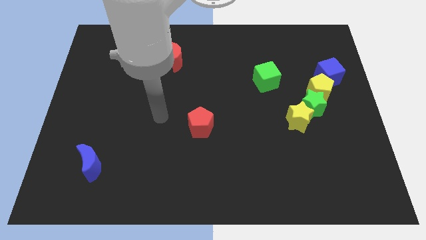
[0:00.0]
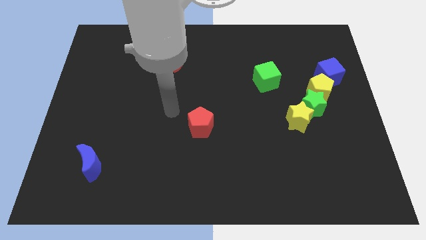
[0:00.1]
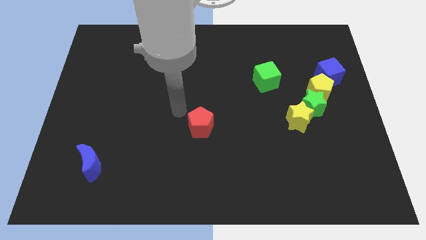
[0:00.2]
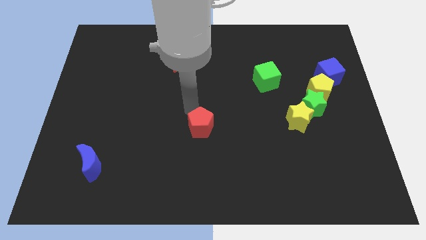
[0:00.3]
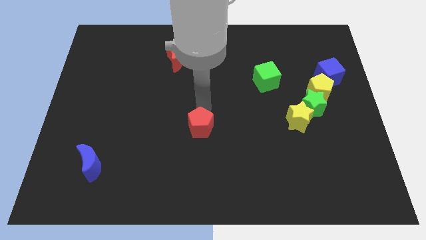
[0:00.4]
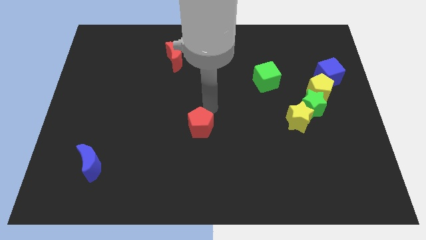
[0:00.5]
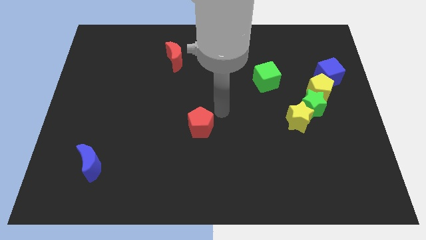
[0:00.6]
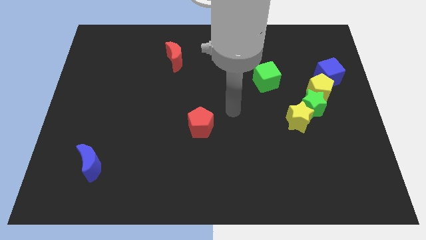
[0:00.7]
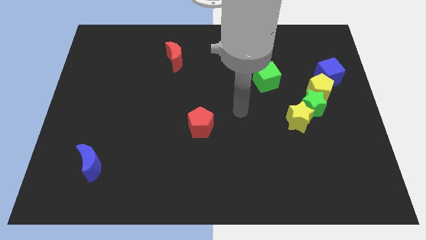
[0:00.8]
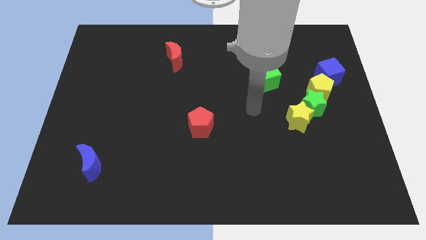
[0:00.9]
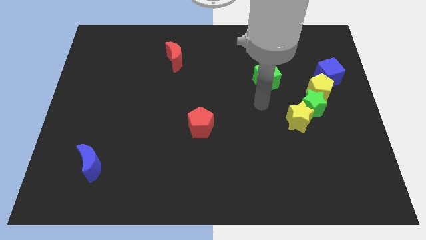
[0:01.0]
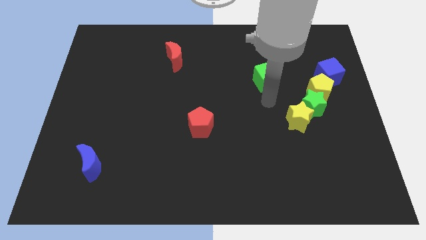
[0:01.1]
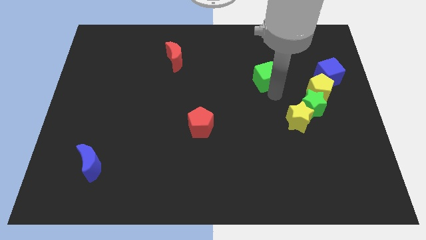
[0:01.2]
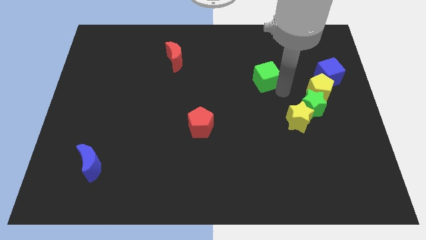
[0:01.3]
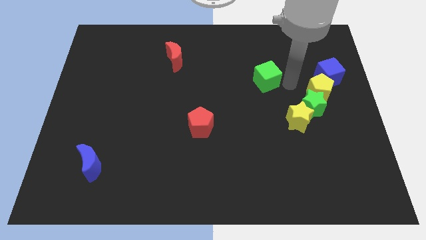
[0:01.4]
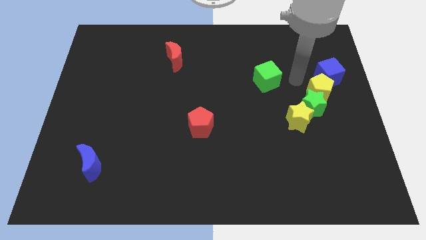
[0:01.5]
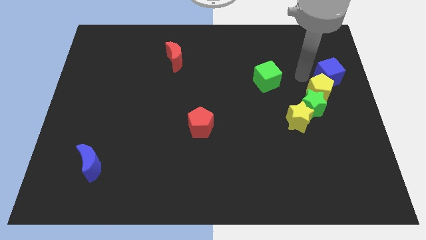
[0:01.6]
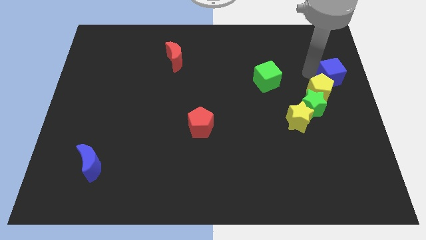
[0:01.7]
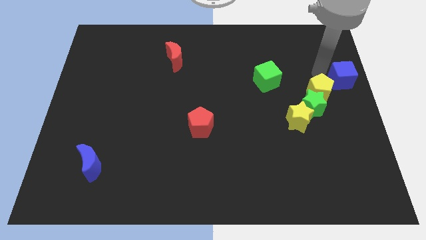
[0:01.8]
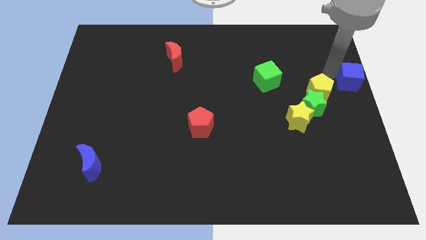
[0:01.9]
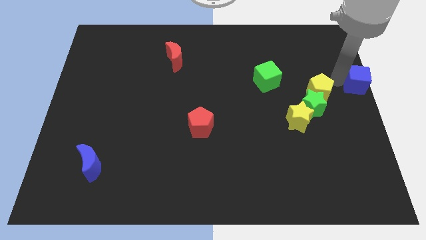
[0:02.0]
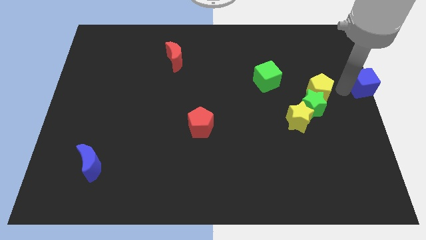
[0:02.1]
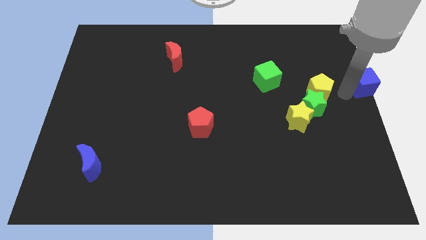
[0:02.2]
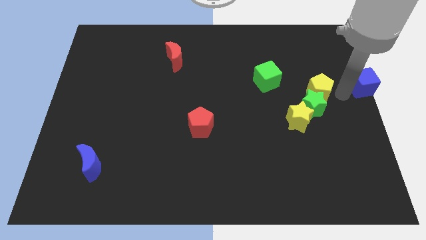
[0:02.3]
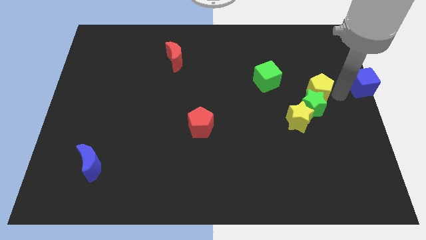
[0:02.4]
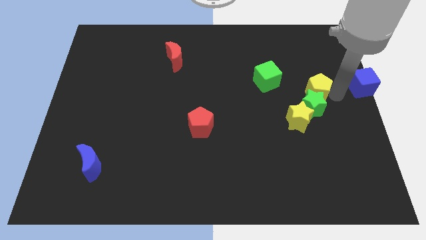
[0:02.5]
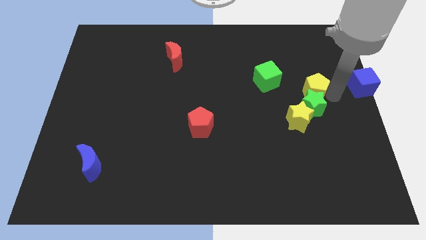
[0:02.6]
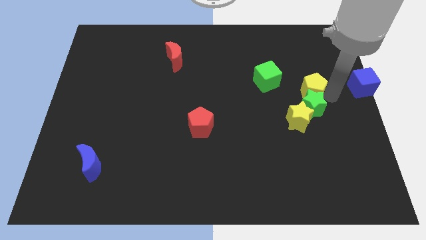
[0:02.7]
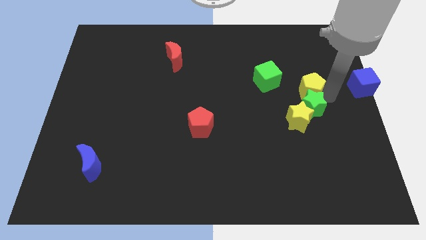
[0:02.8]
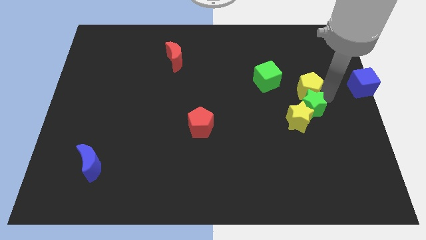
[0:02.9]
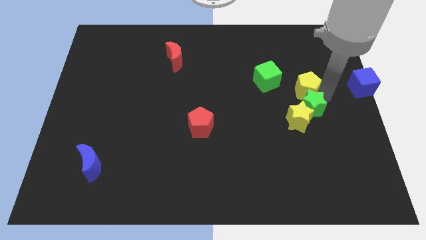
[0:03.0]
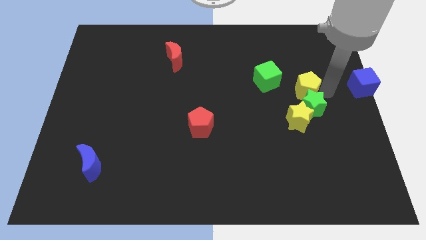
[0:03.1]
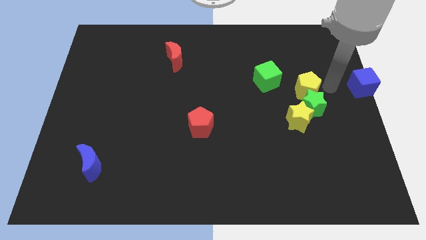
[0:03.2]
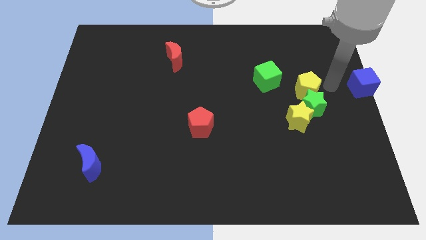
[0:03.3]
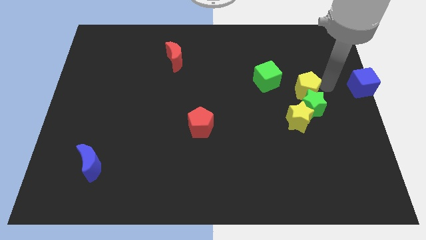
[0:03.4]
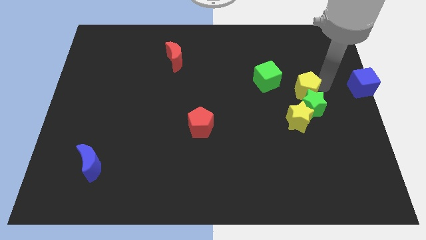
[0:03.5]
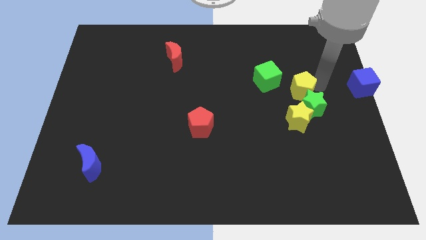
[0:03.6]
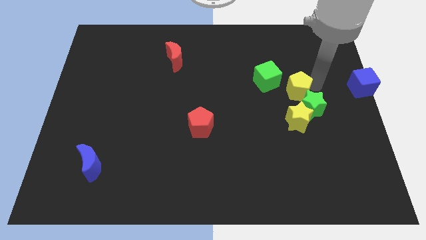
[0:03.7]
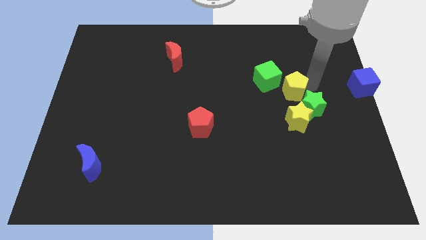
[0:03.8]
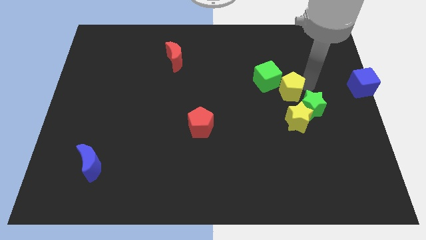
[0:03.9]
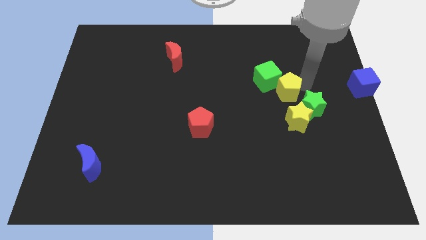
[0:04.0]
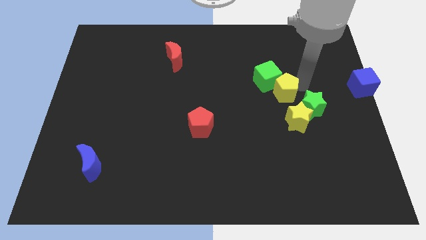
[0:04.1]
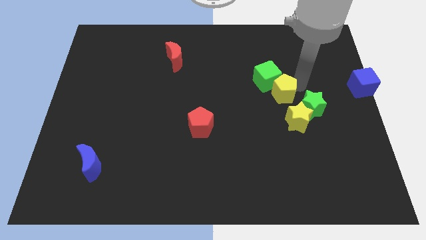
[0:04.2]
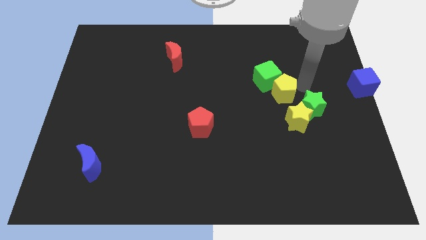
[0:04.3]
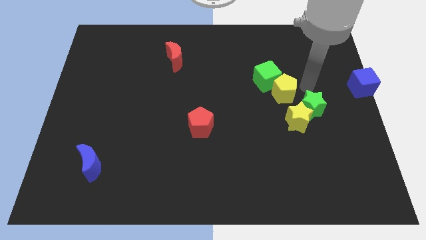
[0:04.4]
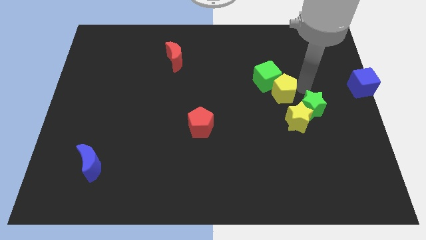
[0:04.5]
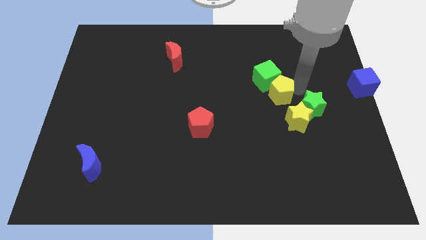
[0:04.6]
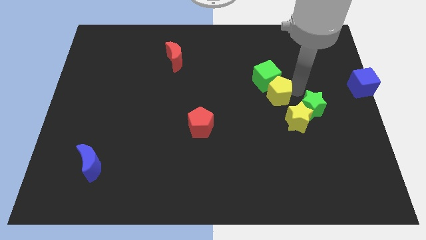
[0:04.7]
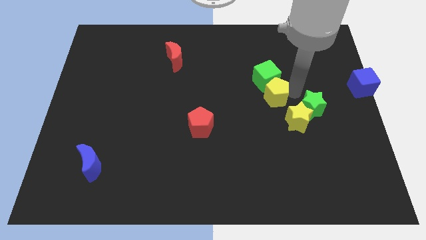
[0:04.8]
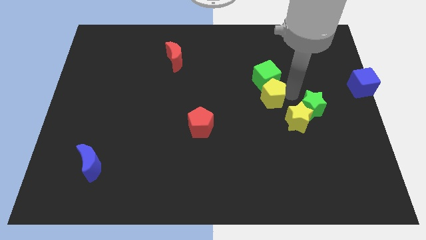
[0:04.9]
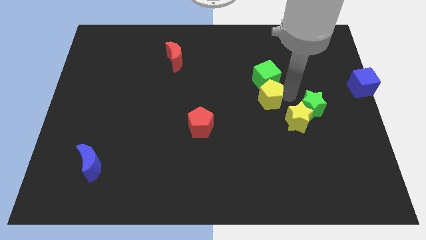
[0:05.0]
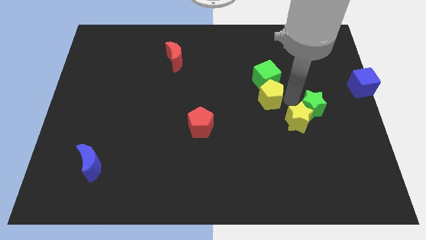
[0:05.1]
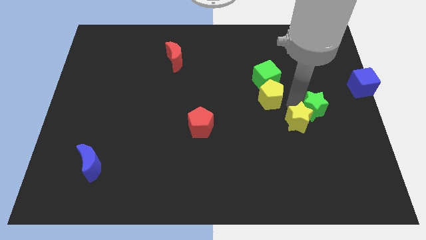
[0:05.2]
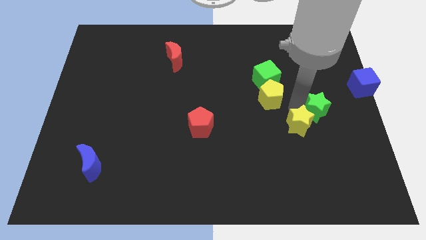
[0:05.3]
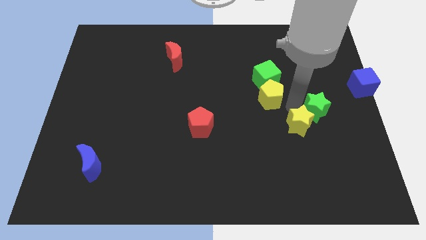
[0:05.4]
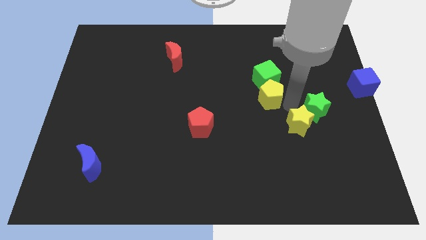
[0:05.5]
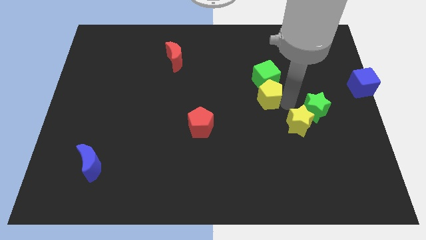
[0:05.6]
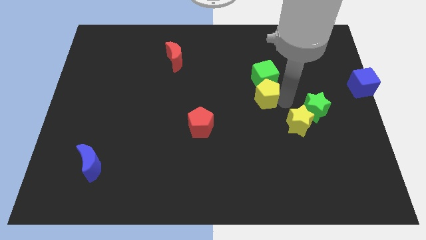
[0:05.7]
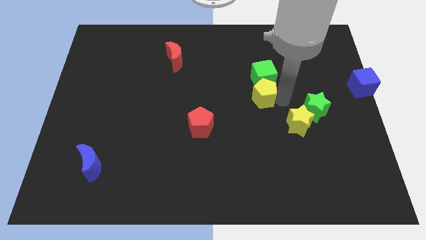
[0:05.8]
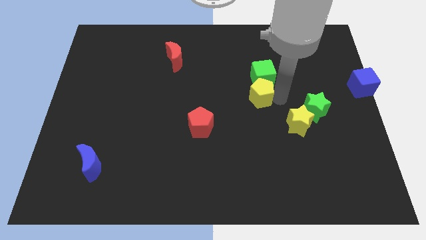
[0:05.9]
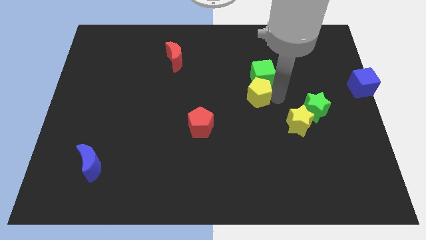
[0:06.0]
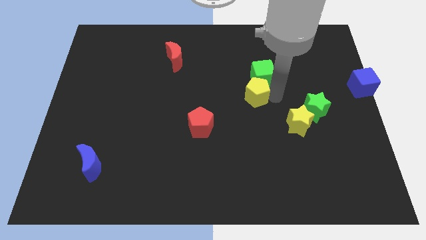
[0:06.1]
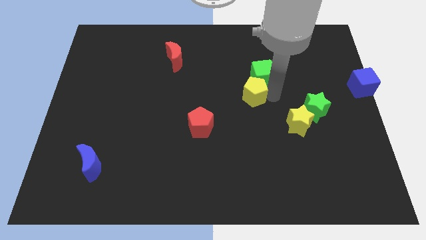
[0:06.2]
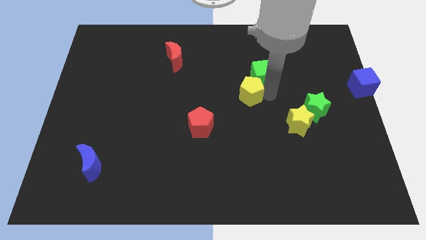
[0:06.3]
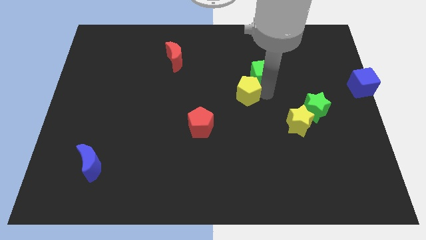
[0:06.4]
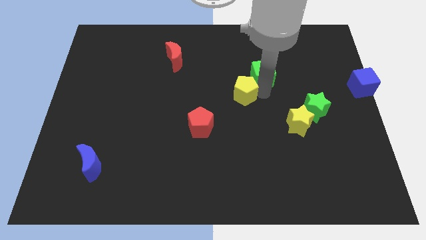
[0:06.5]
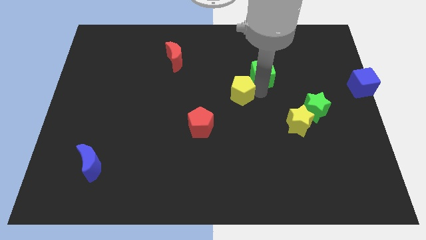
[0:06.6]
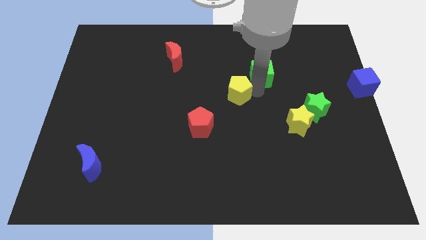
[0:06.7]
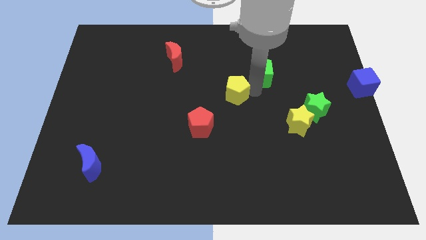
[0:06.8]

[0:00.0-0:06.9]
slide the yellow pentagon to the left

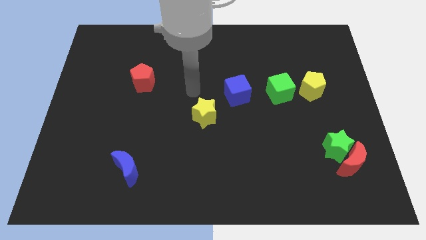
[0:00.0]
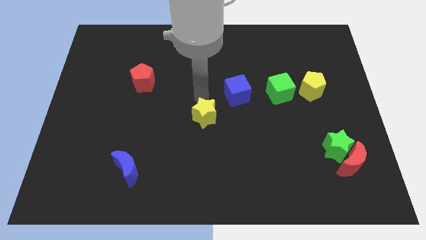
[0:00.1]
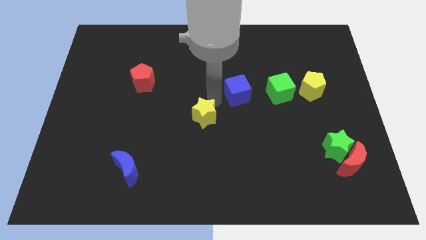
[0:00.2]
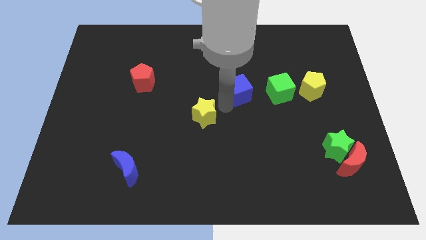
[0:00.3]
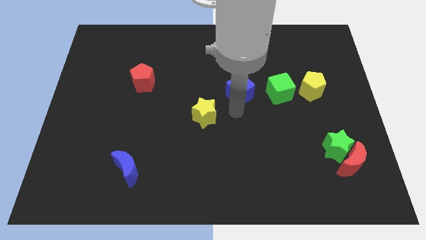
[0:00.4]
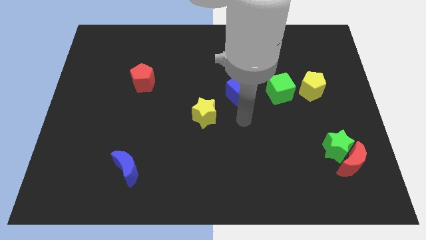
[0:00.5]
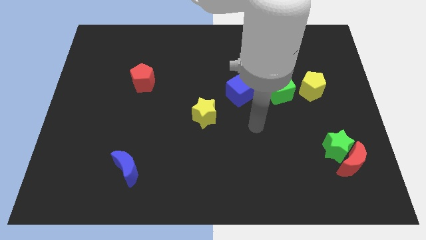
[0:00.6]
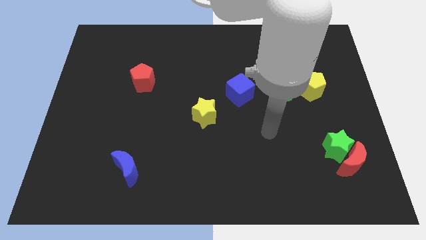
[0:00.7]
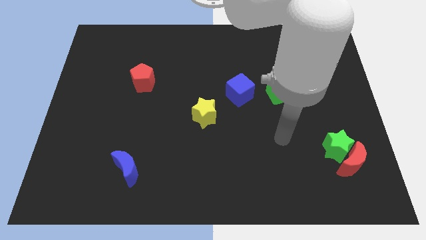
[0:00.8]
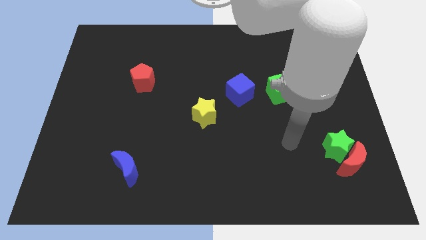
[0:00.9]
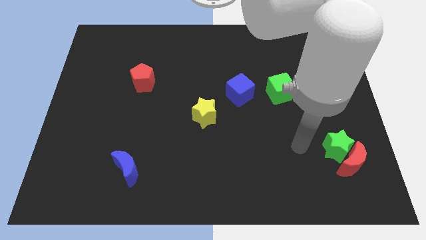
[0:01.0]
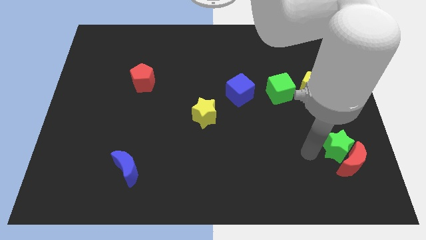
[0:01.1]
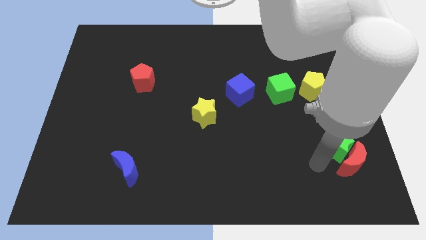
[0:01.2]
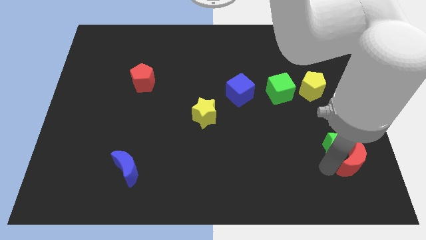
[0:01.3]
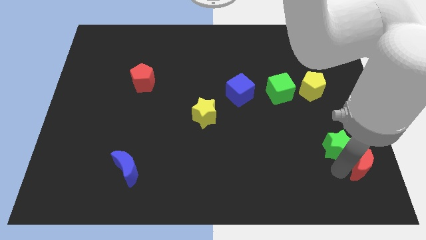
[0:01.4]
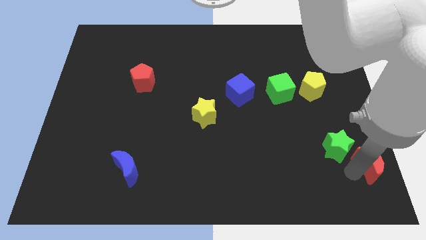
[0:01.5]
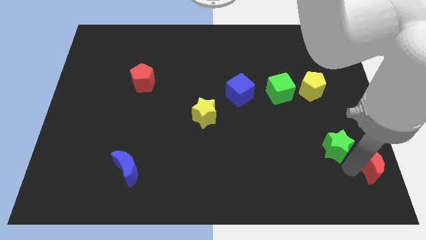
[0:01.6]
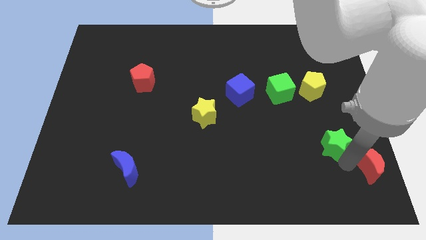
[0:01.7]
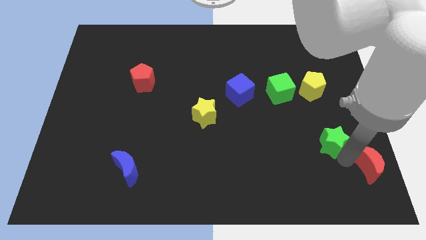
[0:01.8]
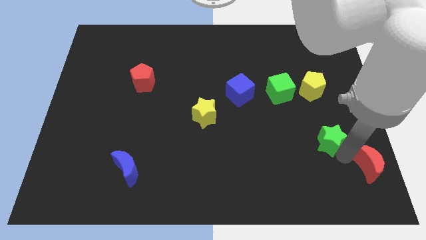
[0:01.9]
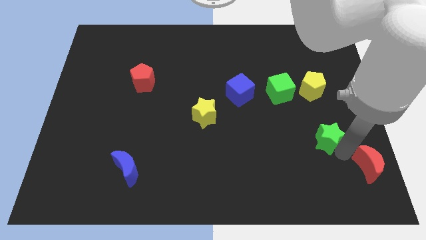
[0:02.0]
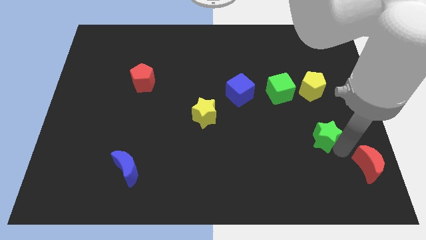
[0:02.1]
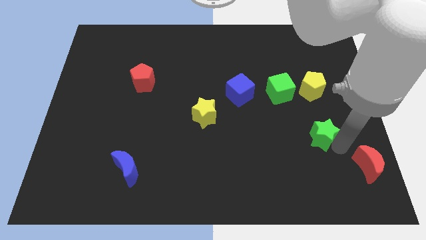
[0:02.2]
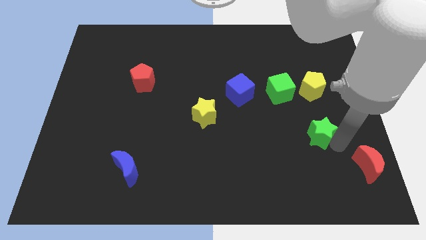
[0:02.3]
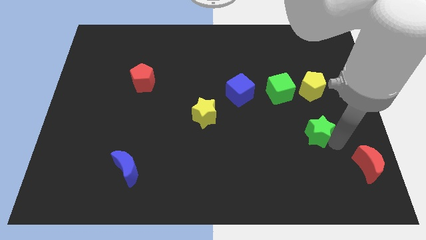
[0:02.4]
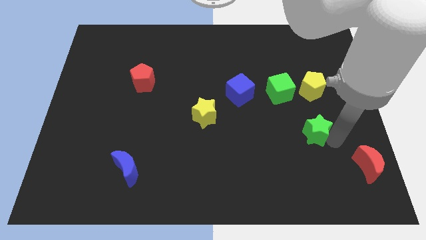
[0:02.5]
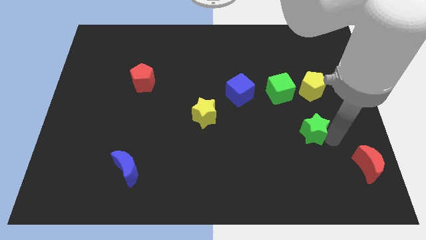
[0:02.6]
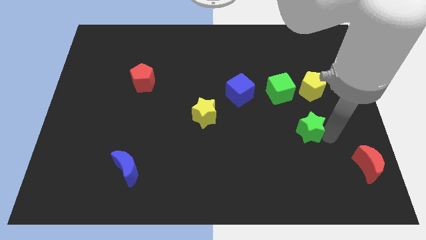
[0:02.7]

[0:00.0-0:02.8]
move the green star a bit up and left
